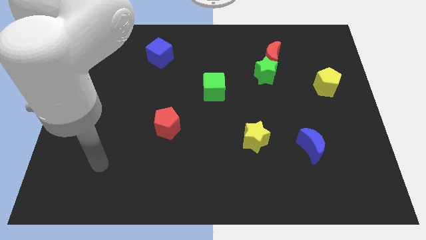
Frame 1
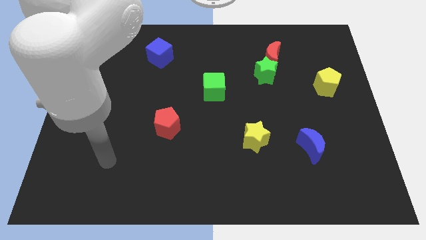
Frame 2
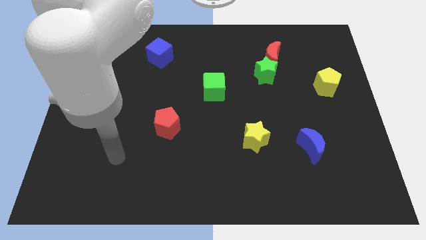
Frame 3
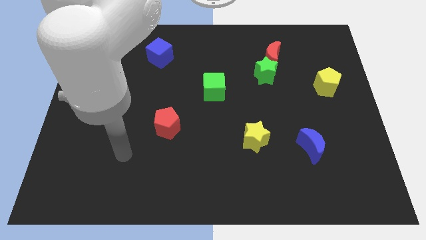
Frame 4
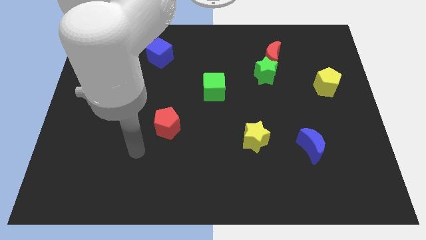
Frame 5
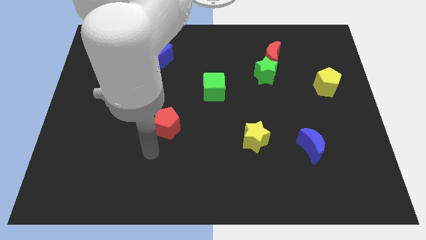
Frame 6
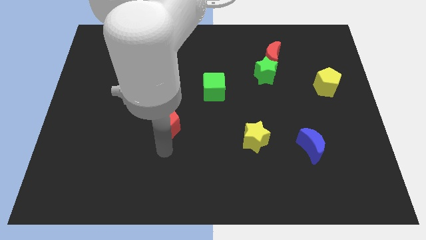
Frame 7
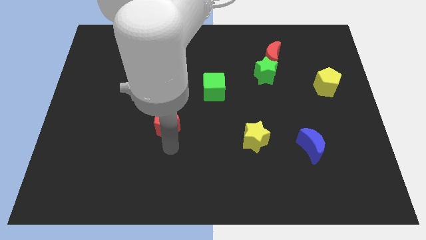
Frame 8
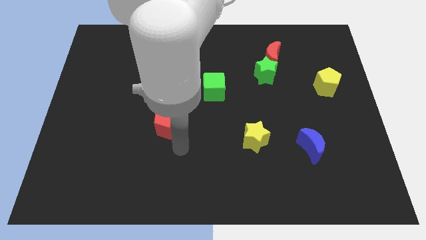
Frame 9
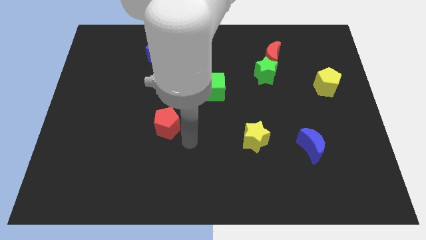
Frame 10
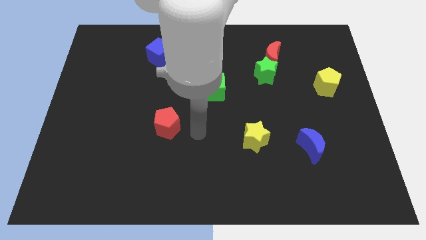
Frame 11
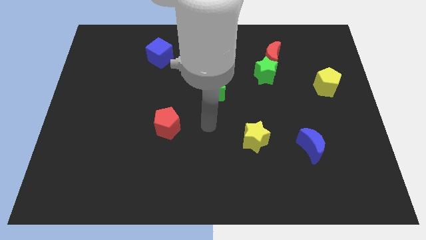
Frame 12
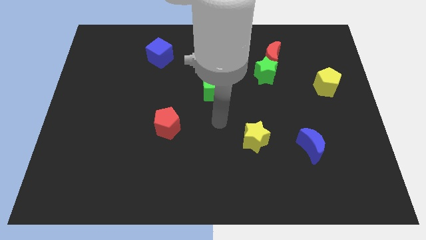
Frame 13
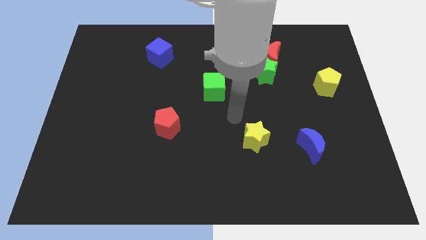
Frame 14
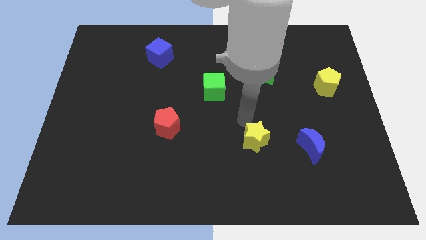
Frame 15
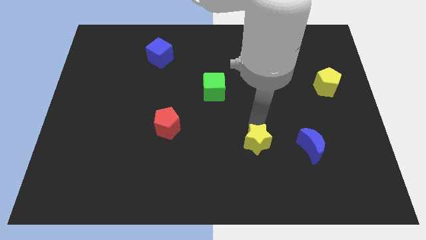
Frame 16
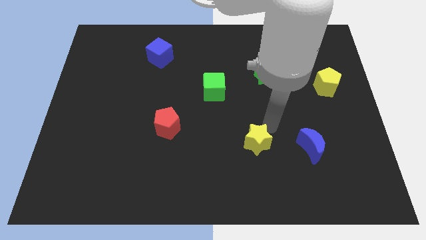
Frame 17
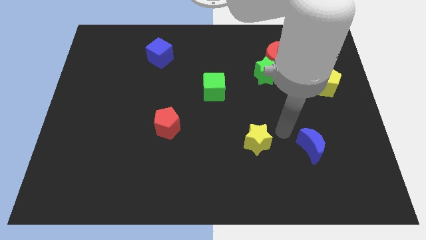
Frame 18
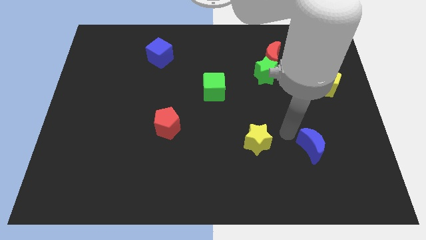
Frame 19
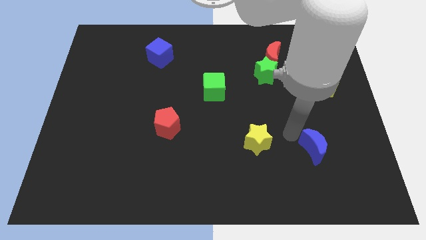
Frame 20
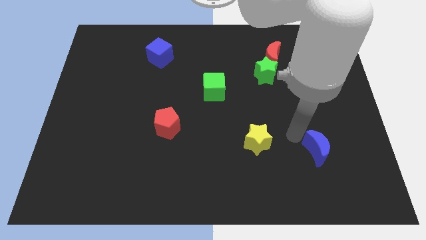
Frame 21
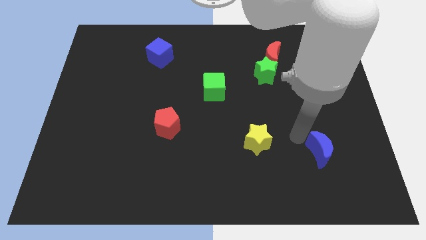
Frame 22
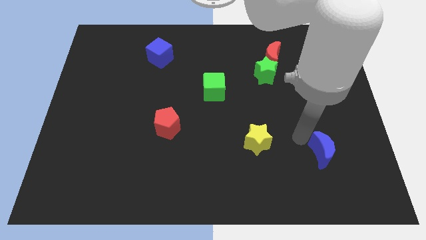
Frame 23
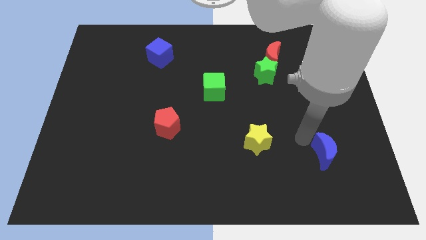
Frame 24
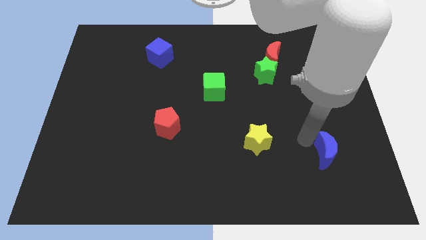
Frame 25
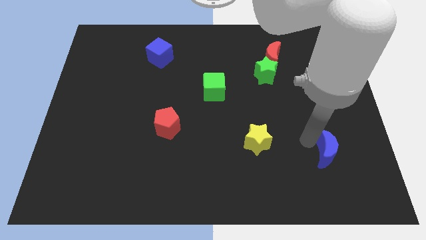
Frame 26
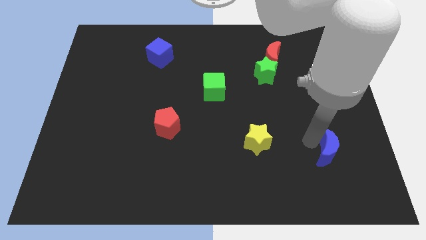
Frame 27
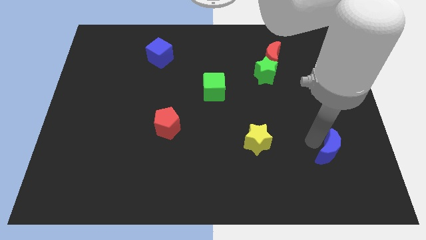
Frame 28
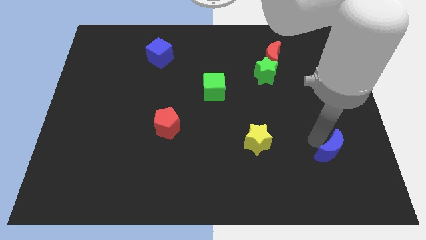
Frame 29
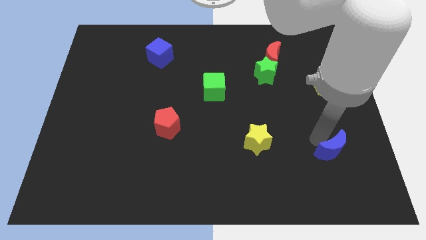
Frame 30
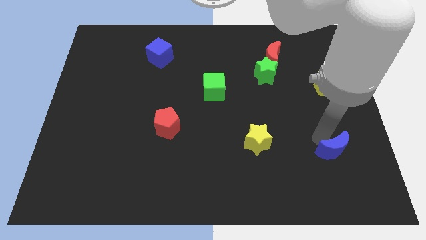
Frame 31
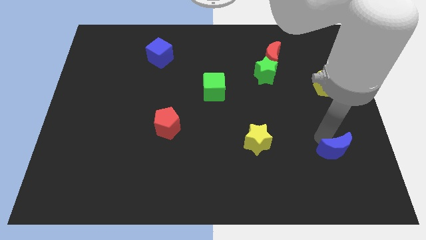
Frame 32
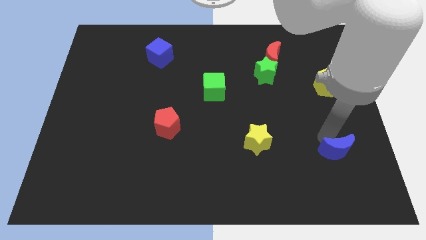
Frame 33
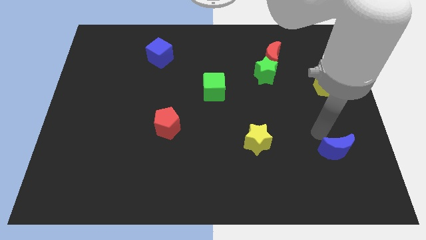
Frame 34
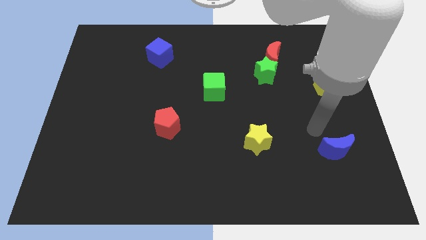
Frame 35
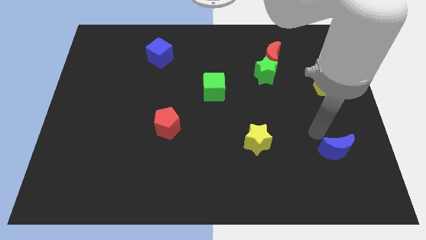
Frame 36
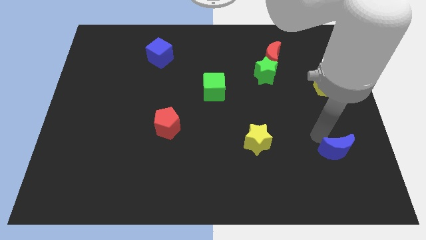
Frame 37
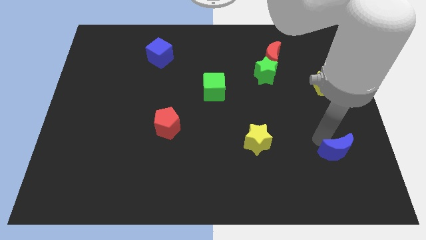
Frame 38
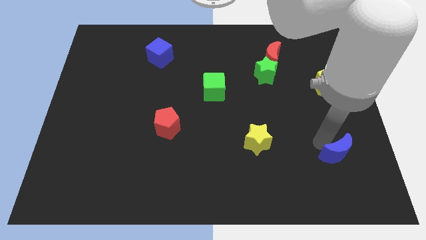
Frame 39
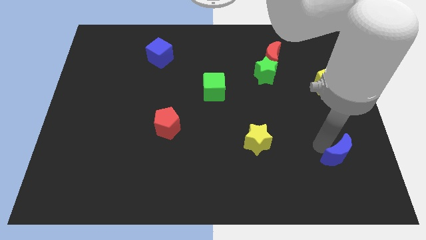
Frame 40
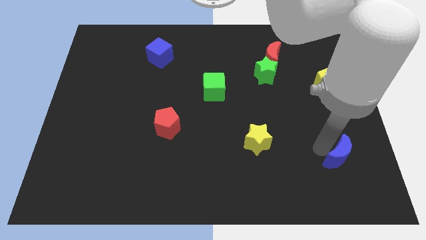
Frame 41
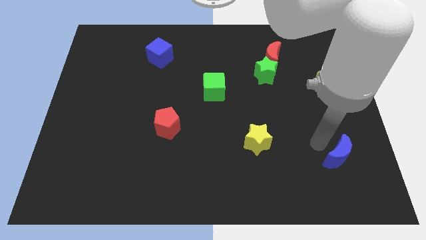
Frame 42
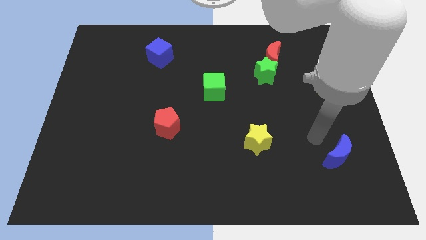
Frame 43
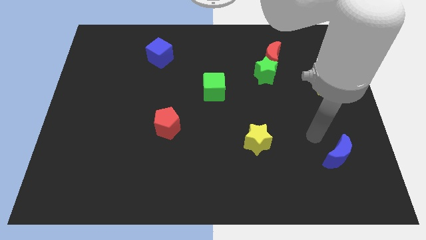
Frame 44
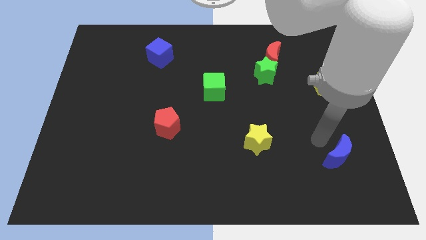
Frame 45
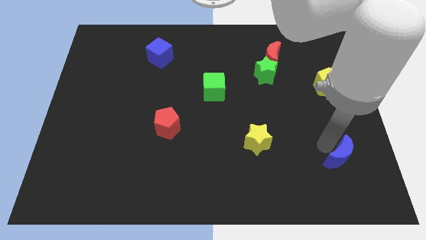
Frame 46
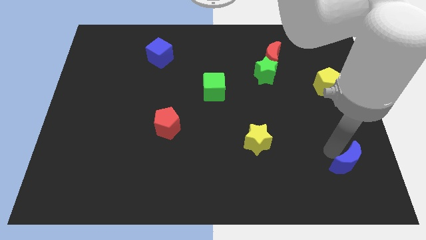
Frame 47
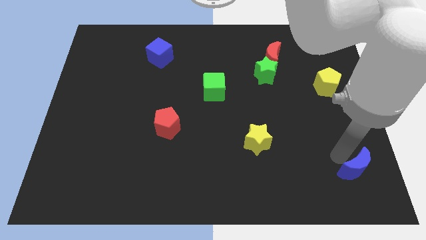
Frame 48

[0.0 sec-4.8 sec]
slide the blue moon to the bottom right of the board

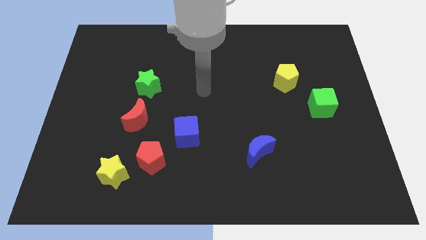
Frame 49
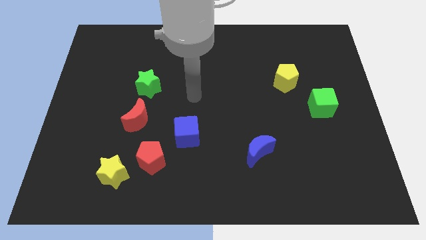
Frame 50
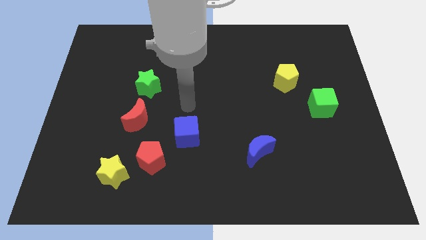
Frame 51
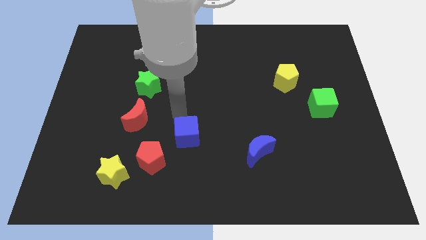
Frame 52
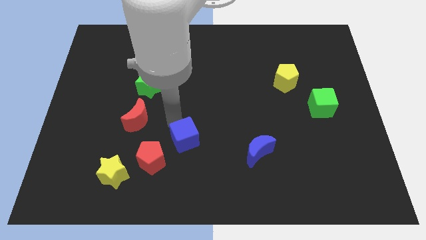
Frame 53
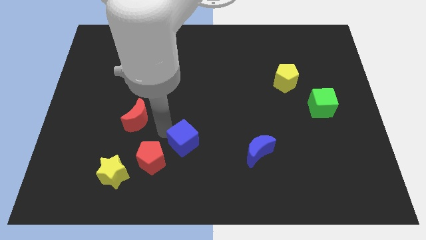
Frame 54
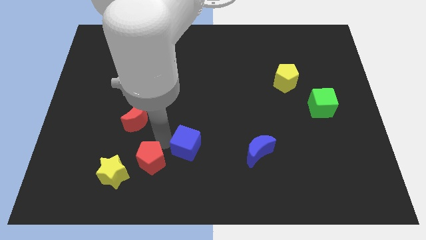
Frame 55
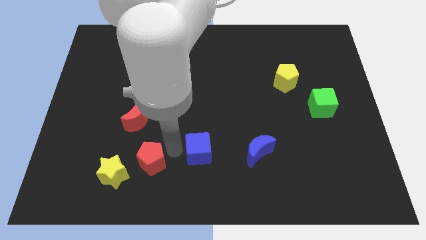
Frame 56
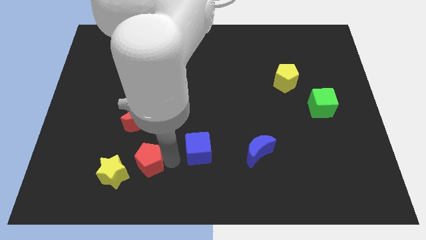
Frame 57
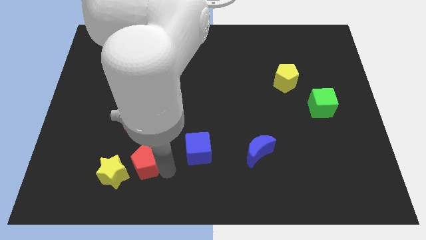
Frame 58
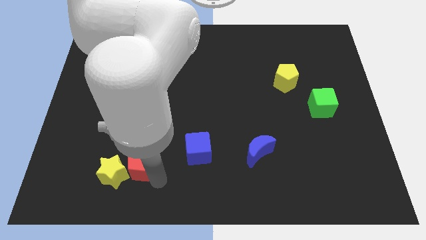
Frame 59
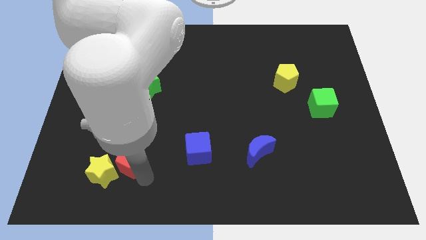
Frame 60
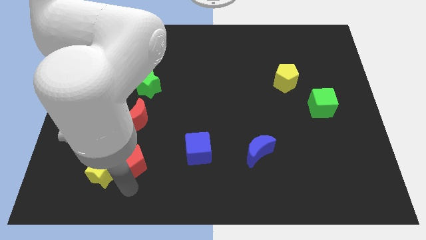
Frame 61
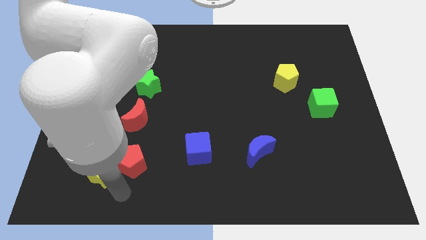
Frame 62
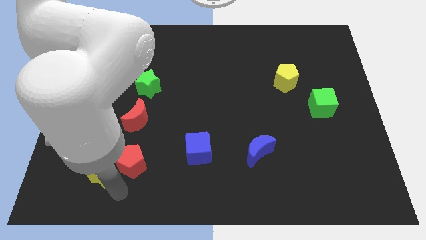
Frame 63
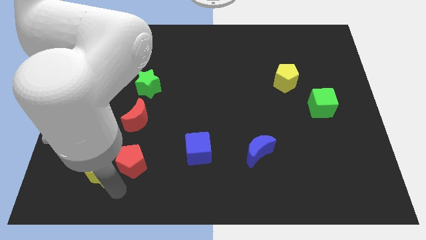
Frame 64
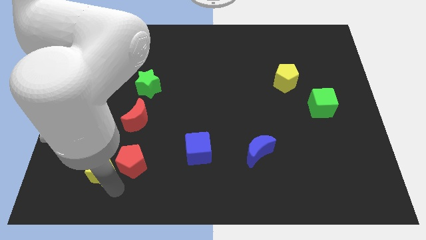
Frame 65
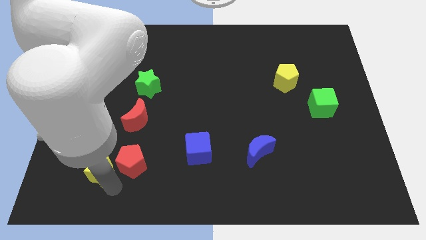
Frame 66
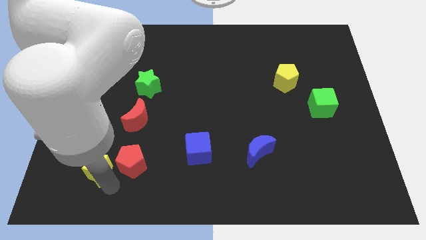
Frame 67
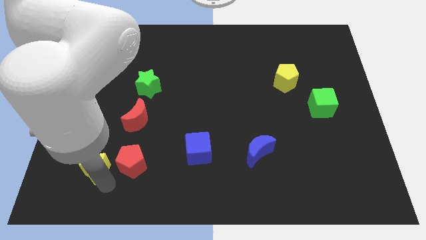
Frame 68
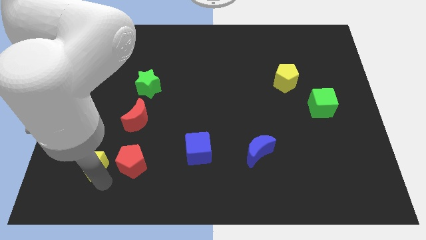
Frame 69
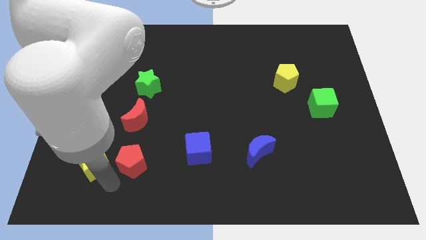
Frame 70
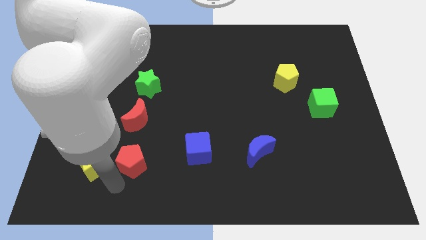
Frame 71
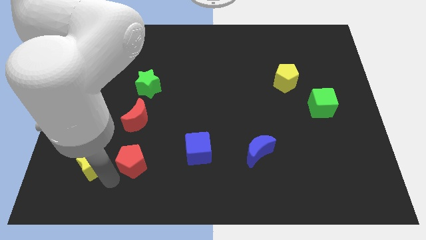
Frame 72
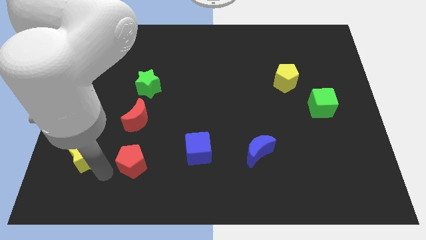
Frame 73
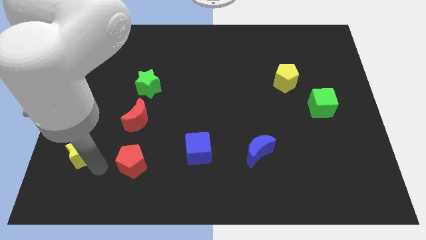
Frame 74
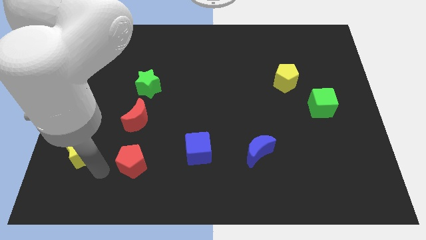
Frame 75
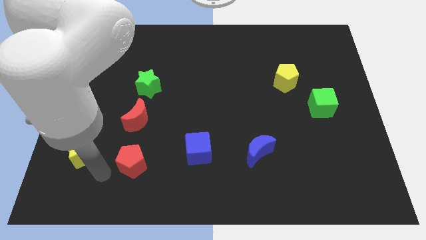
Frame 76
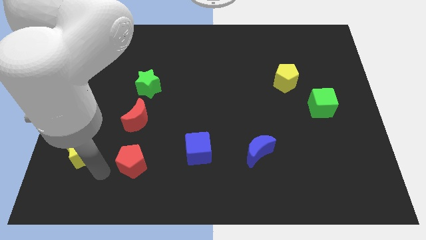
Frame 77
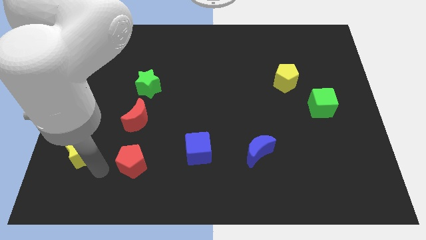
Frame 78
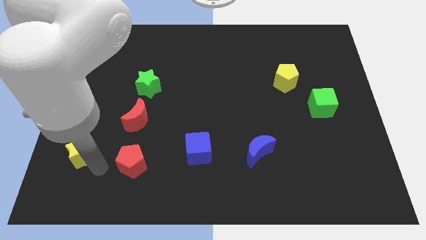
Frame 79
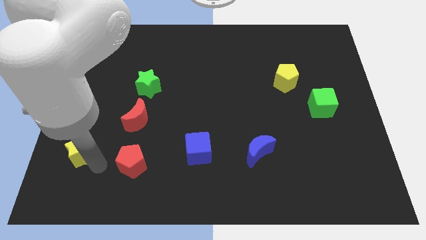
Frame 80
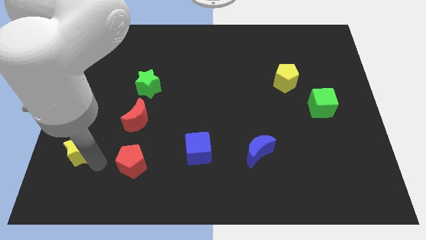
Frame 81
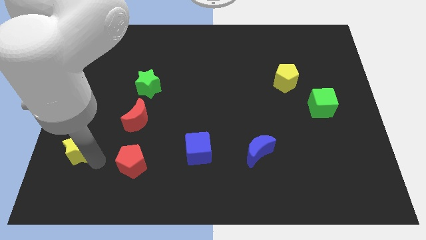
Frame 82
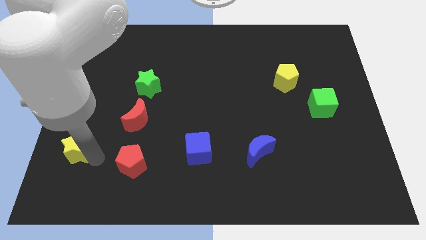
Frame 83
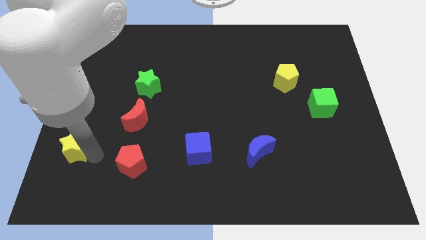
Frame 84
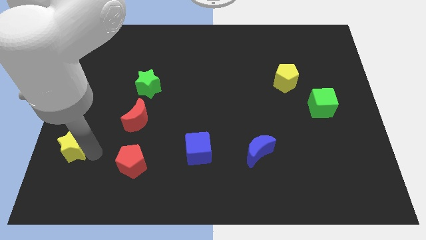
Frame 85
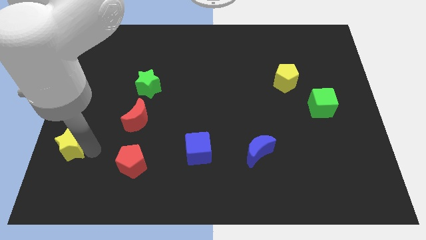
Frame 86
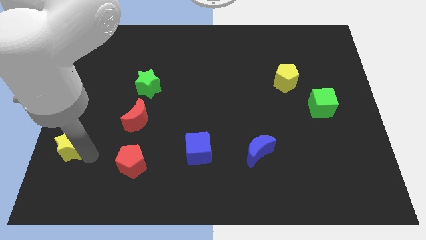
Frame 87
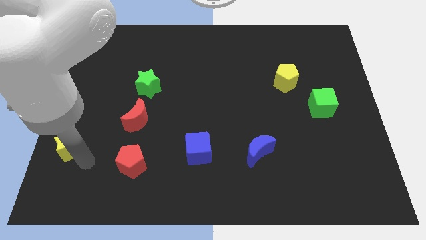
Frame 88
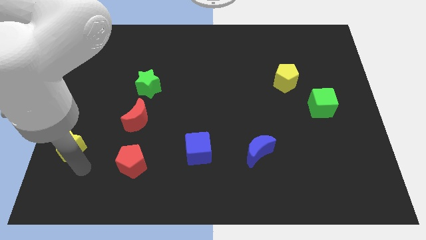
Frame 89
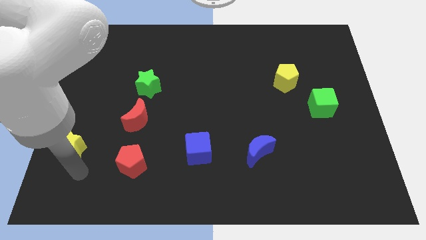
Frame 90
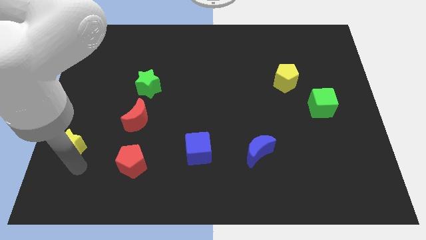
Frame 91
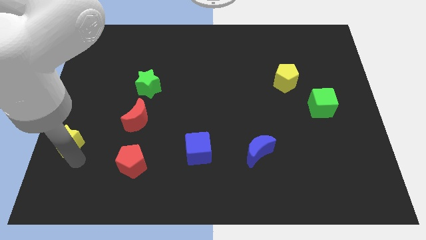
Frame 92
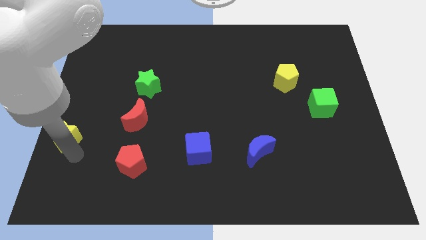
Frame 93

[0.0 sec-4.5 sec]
push the yellow star to the left side
